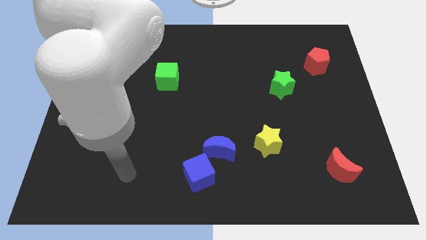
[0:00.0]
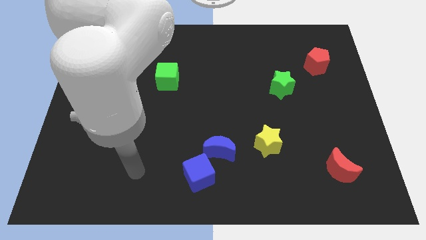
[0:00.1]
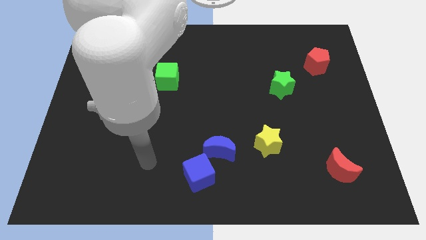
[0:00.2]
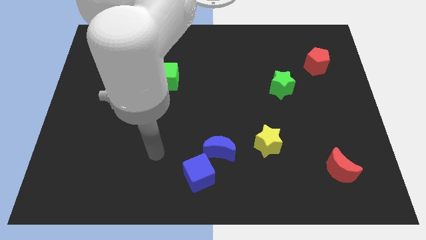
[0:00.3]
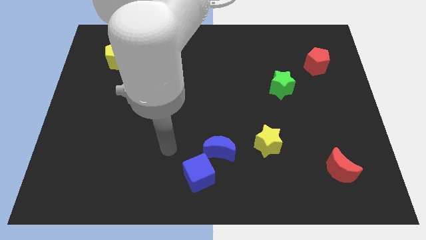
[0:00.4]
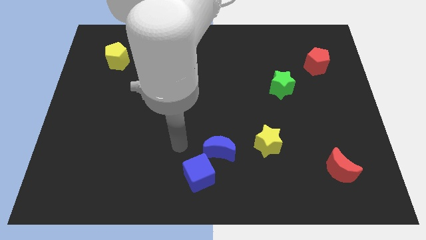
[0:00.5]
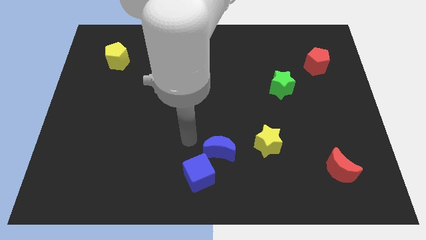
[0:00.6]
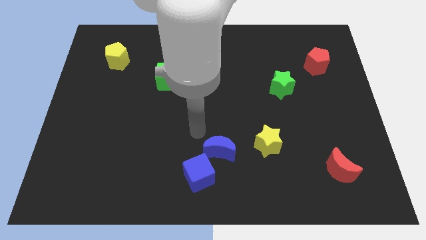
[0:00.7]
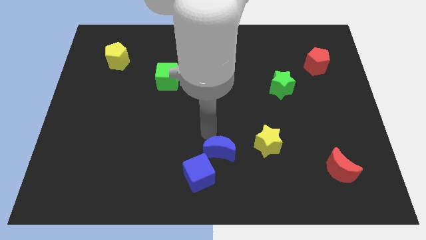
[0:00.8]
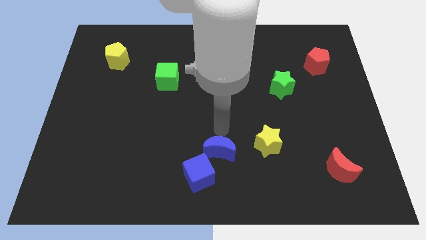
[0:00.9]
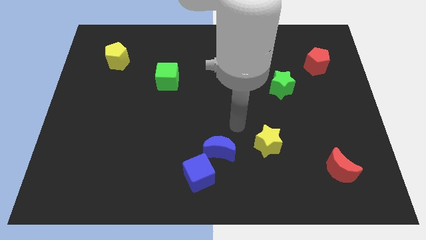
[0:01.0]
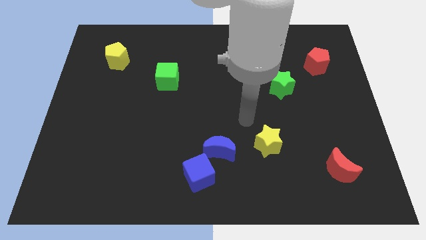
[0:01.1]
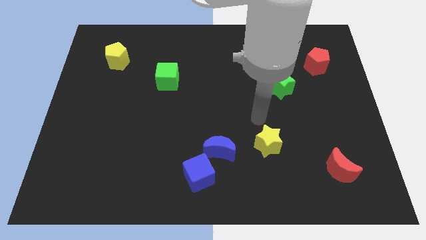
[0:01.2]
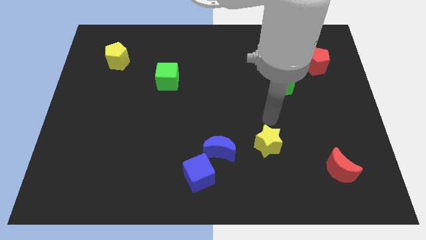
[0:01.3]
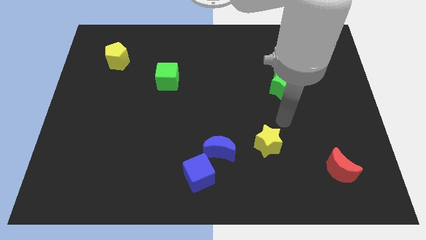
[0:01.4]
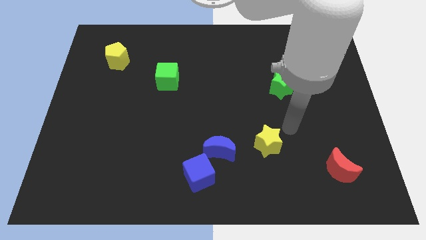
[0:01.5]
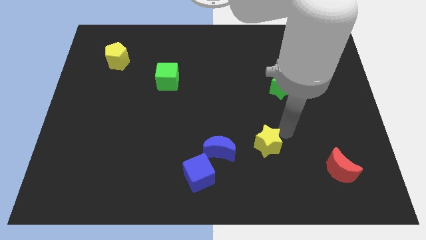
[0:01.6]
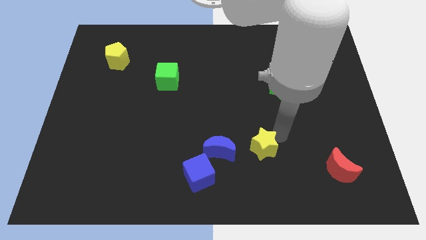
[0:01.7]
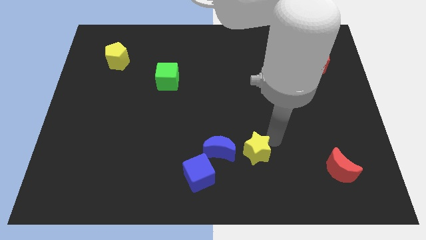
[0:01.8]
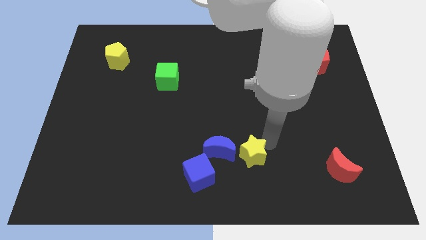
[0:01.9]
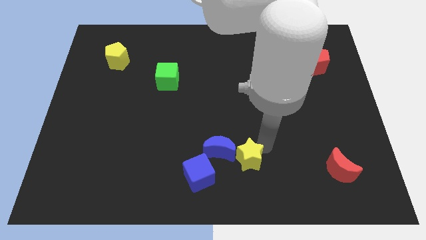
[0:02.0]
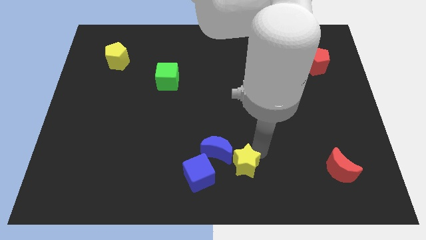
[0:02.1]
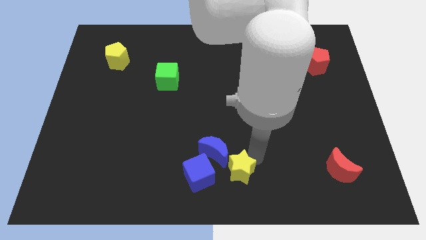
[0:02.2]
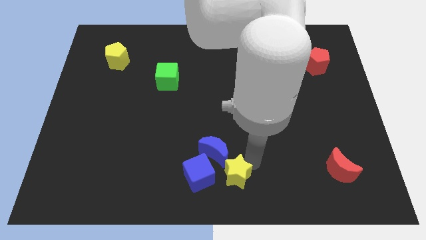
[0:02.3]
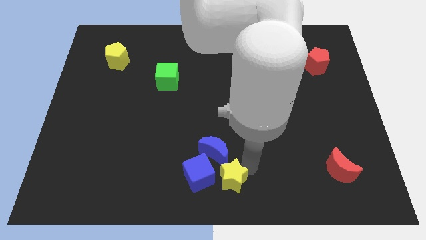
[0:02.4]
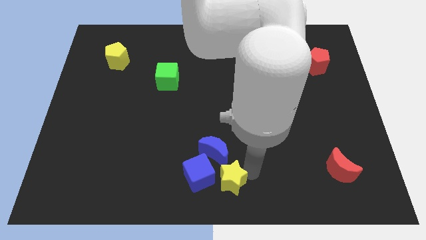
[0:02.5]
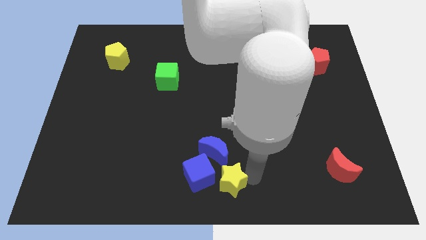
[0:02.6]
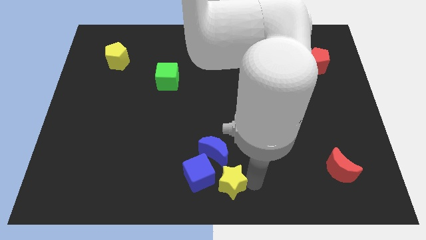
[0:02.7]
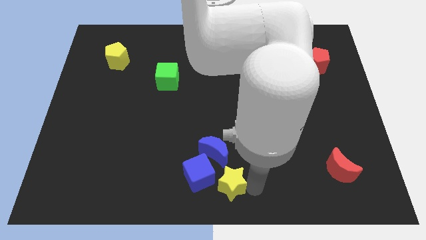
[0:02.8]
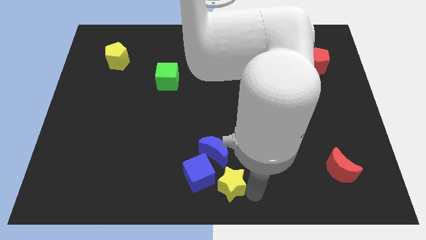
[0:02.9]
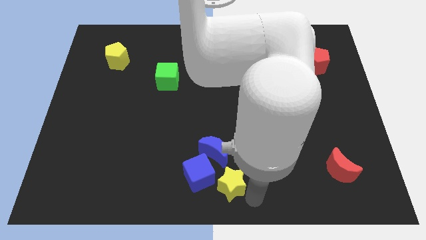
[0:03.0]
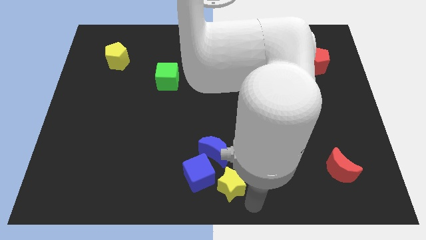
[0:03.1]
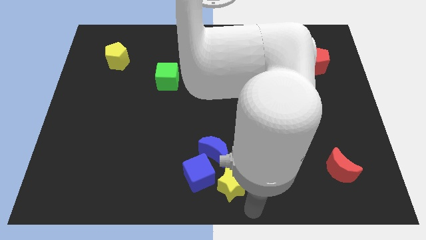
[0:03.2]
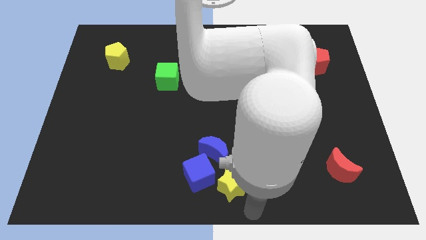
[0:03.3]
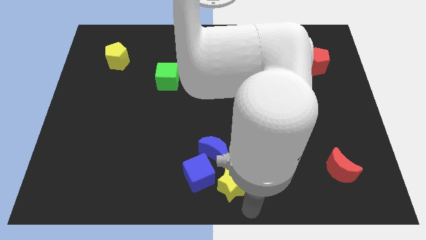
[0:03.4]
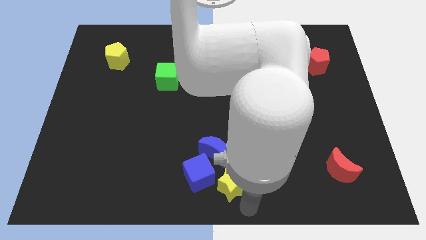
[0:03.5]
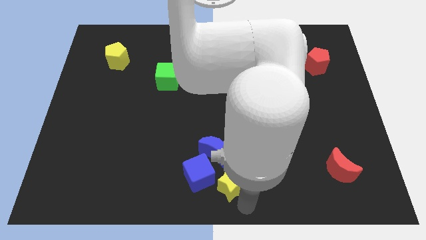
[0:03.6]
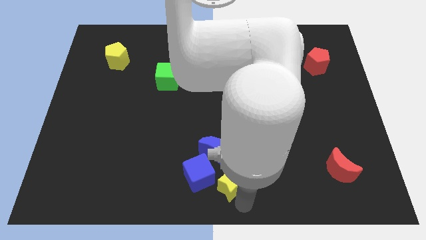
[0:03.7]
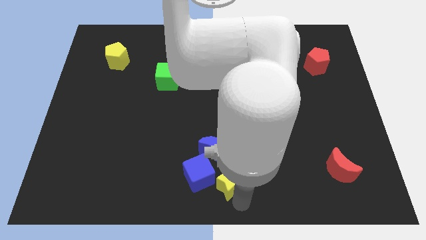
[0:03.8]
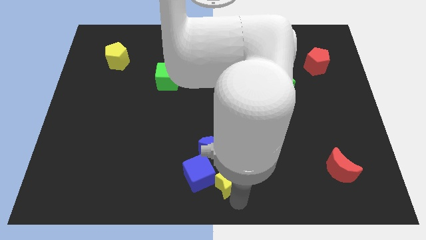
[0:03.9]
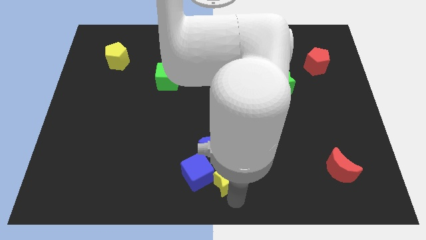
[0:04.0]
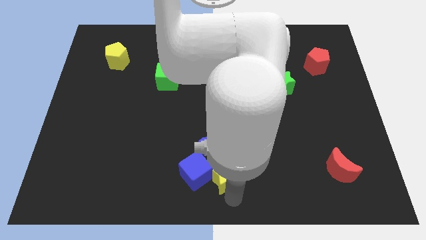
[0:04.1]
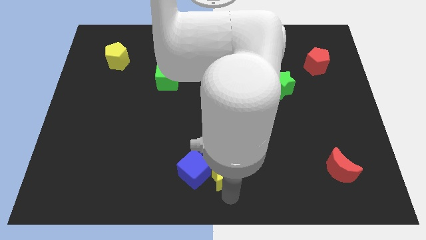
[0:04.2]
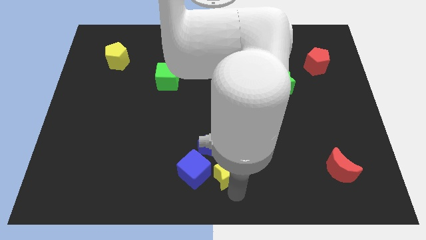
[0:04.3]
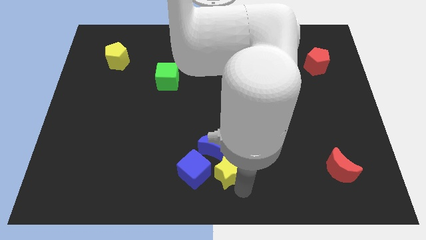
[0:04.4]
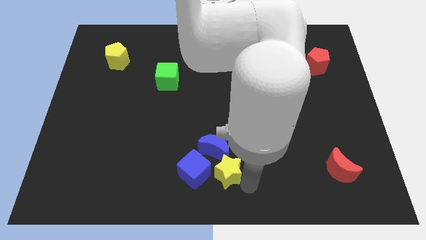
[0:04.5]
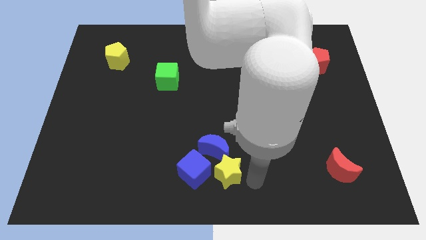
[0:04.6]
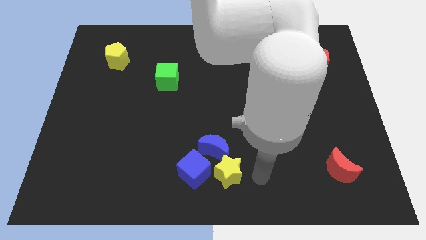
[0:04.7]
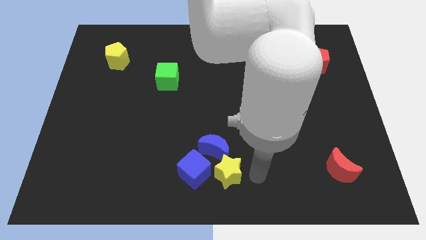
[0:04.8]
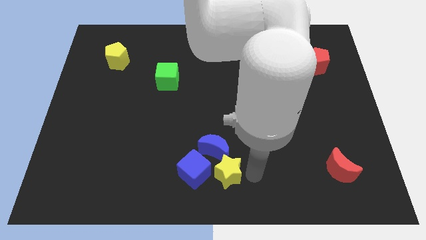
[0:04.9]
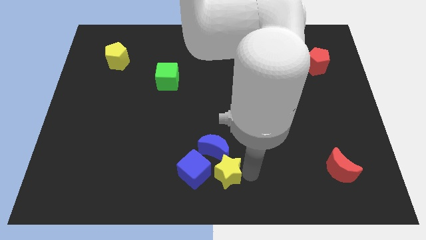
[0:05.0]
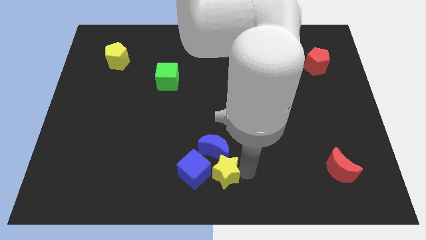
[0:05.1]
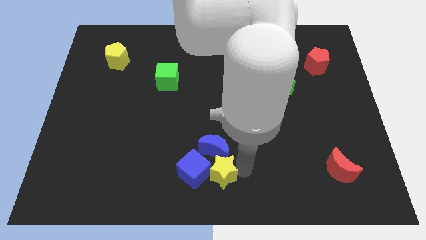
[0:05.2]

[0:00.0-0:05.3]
move the yellow star to the blue cube

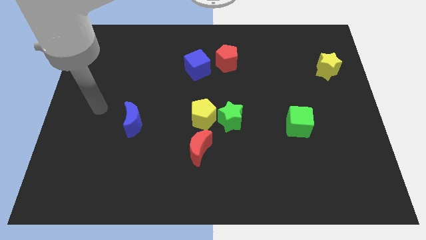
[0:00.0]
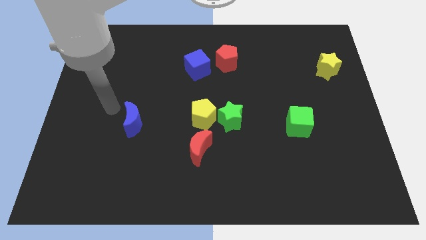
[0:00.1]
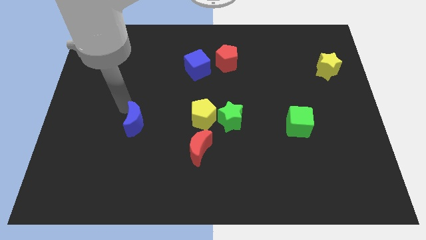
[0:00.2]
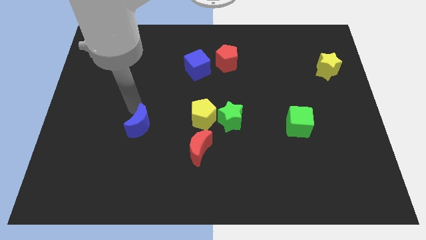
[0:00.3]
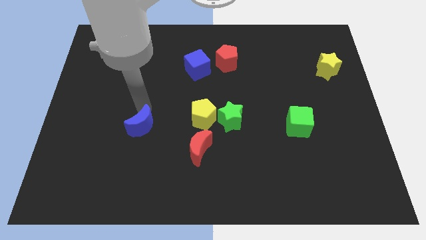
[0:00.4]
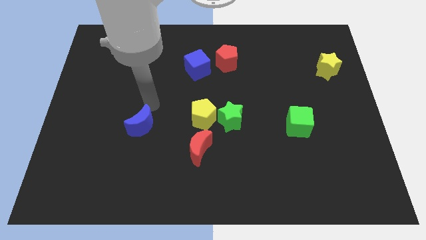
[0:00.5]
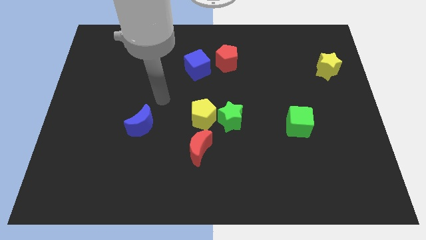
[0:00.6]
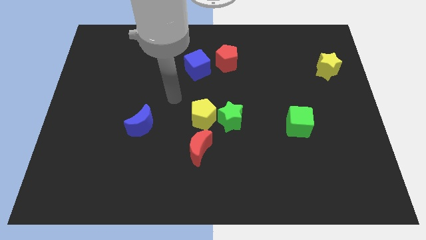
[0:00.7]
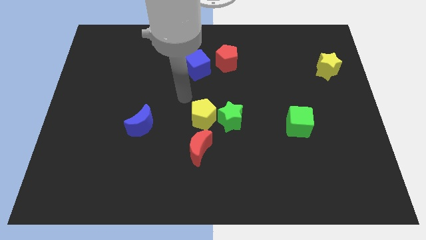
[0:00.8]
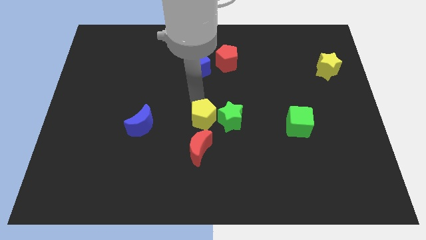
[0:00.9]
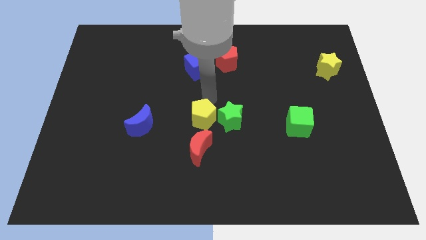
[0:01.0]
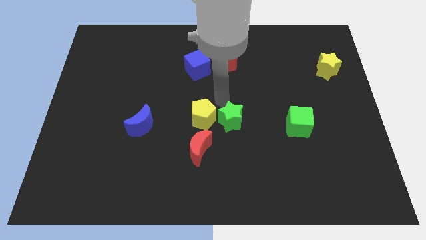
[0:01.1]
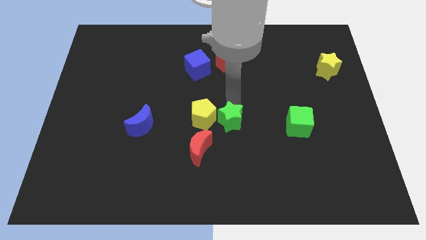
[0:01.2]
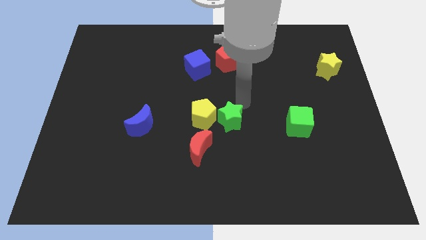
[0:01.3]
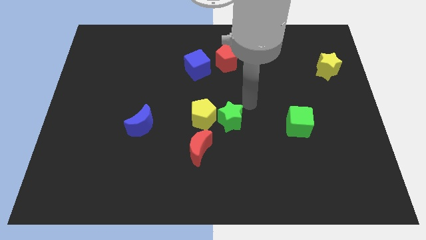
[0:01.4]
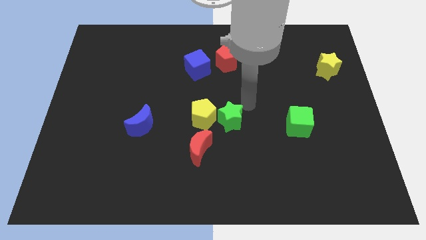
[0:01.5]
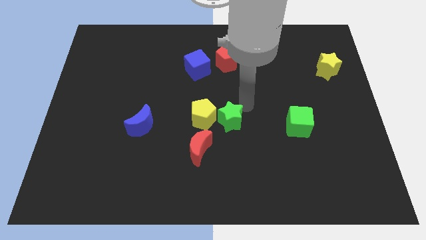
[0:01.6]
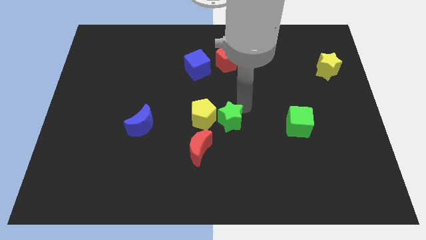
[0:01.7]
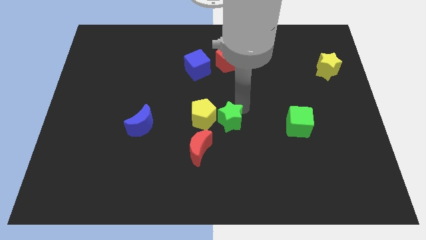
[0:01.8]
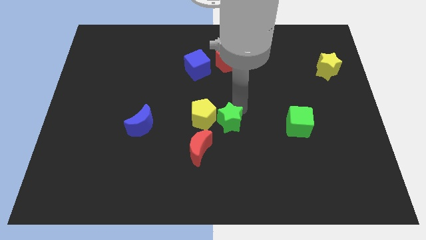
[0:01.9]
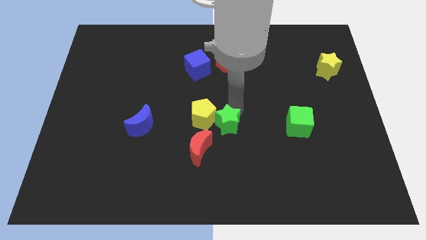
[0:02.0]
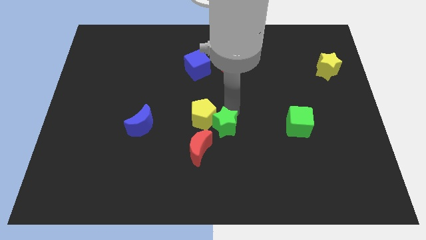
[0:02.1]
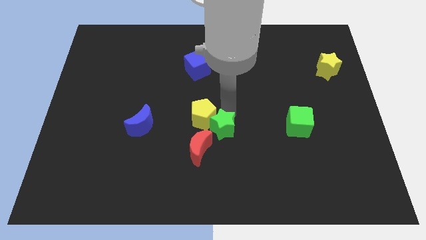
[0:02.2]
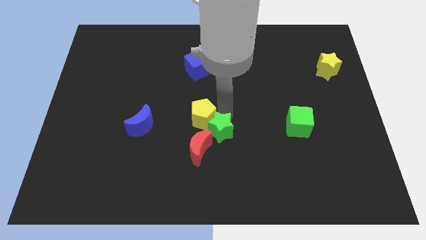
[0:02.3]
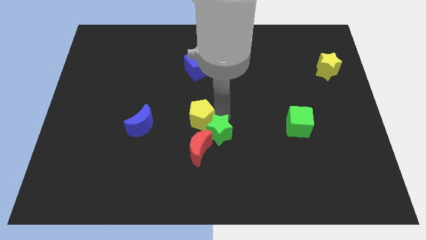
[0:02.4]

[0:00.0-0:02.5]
push the green star close to the red moon
